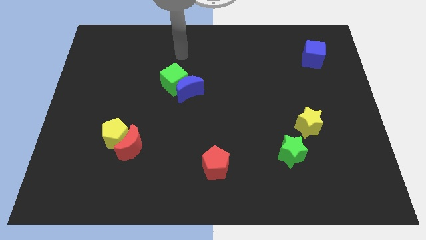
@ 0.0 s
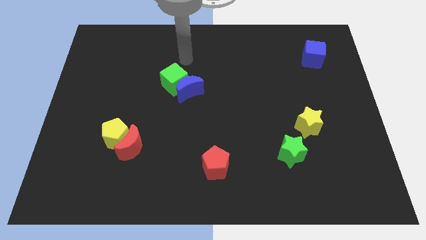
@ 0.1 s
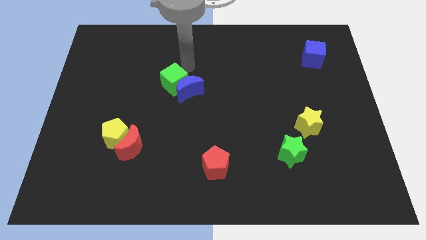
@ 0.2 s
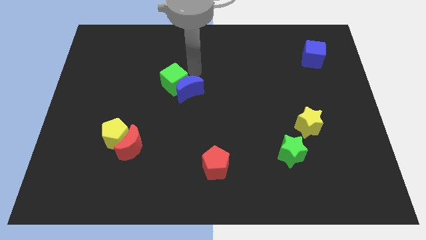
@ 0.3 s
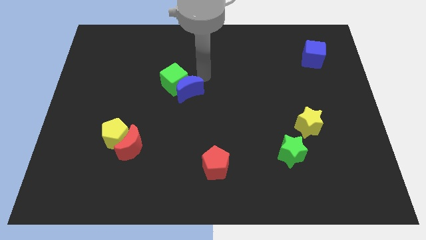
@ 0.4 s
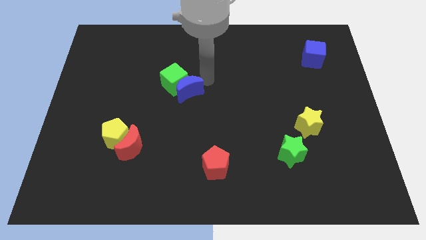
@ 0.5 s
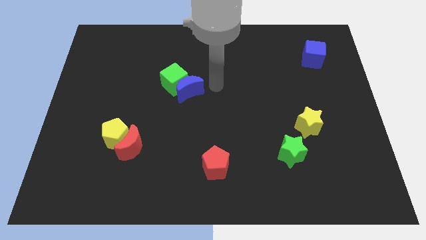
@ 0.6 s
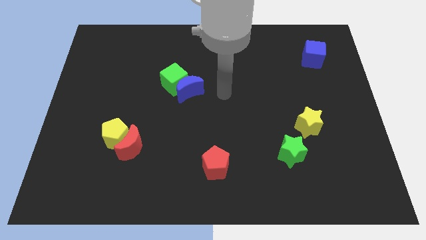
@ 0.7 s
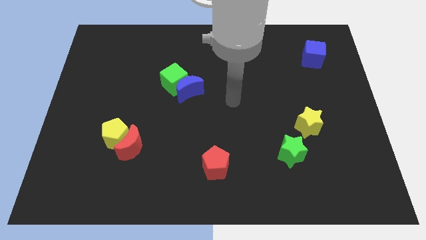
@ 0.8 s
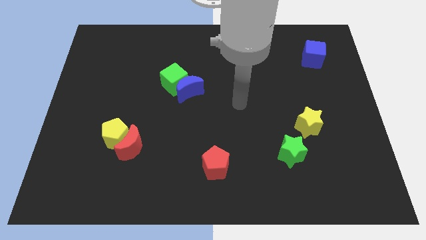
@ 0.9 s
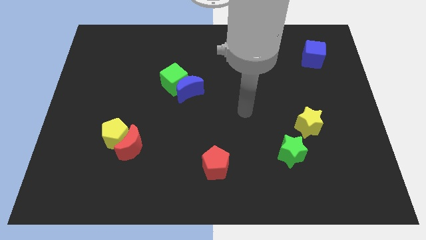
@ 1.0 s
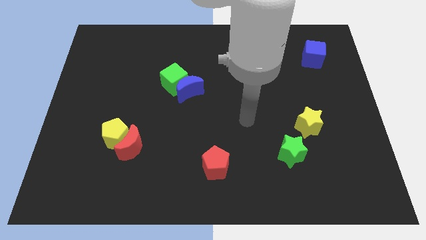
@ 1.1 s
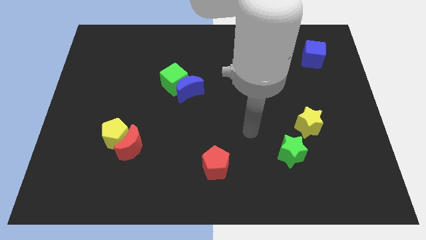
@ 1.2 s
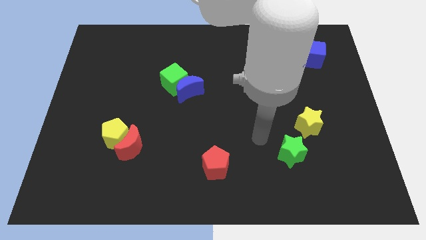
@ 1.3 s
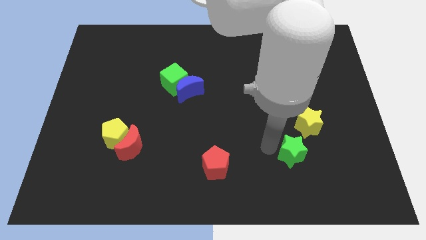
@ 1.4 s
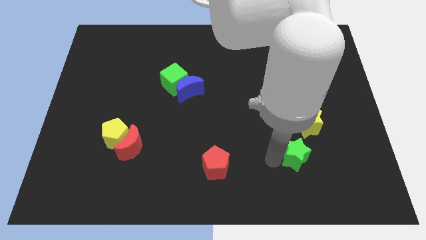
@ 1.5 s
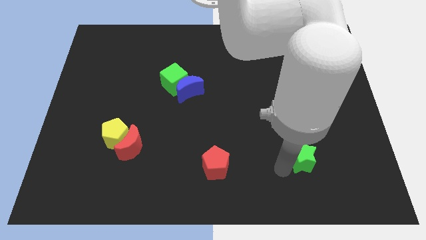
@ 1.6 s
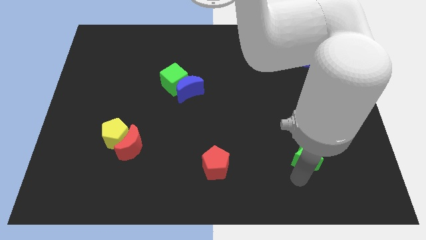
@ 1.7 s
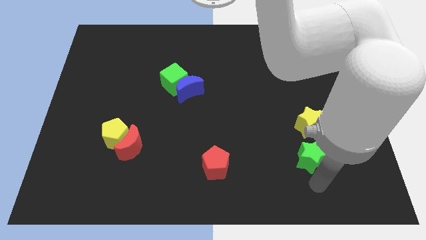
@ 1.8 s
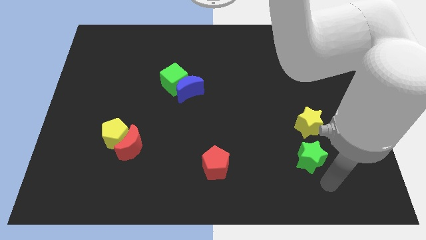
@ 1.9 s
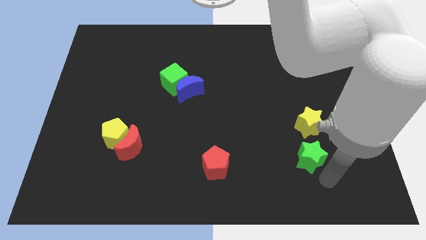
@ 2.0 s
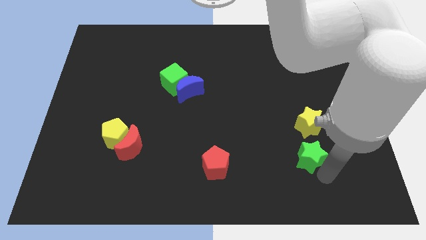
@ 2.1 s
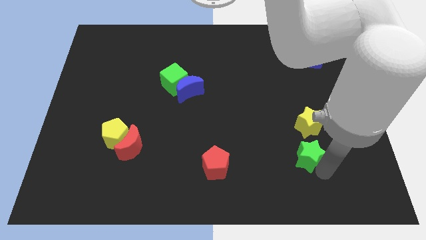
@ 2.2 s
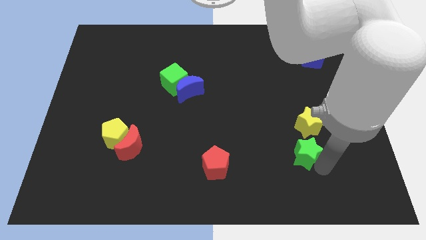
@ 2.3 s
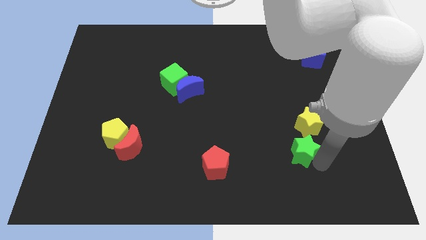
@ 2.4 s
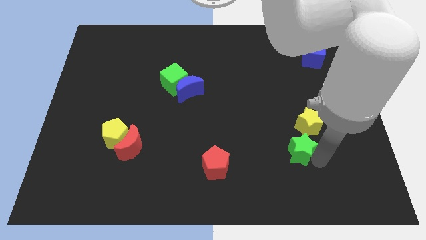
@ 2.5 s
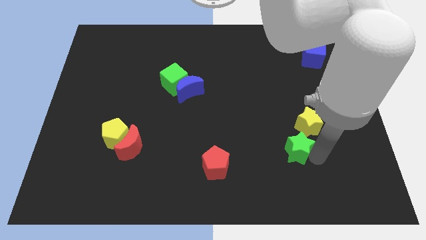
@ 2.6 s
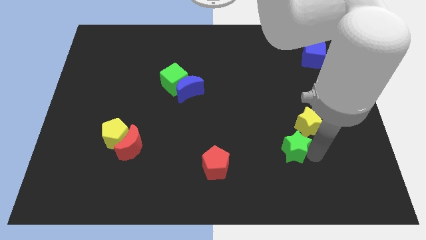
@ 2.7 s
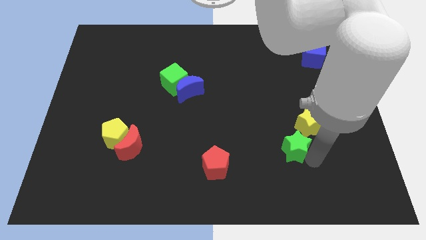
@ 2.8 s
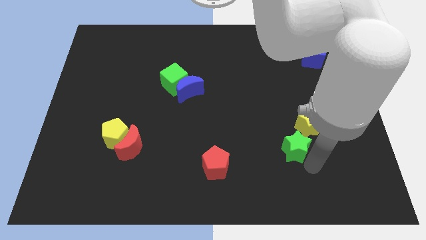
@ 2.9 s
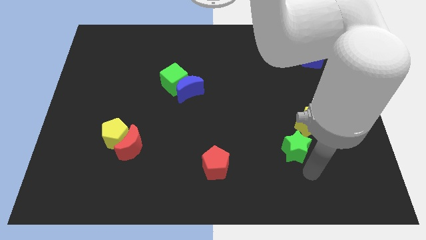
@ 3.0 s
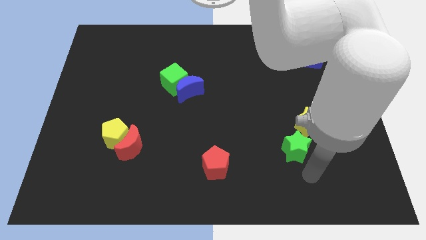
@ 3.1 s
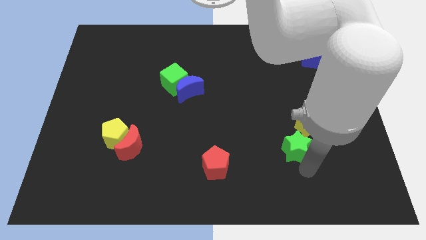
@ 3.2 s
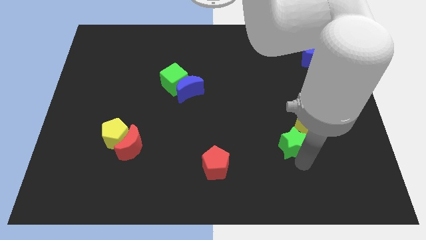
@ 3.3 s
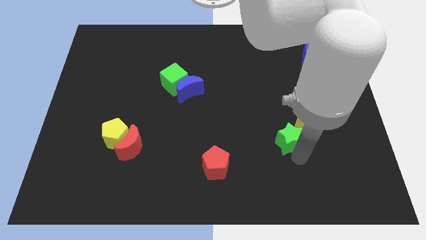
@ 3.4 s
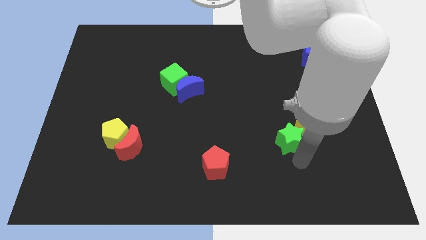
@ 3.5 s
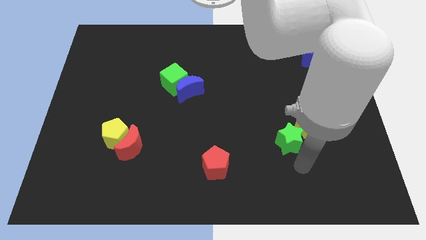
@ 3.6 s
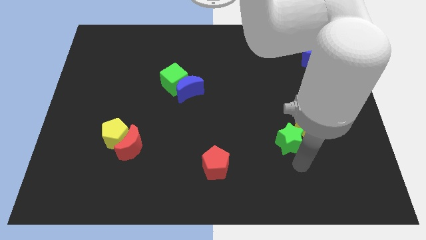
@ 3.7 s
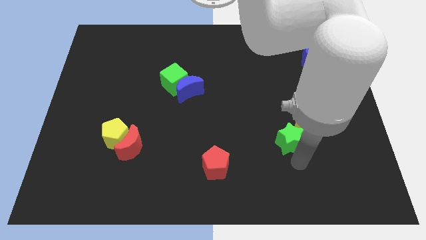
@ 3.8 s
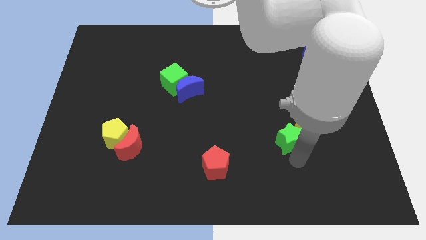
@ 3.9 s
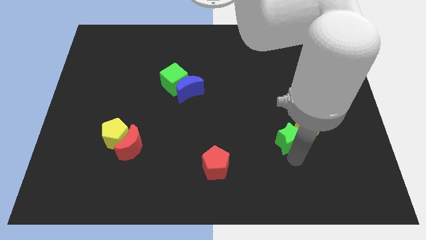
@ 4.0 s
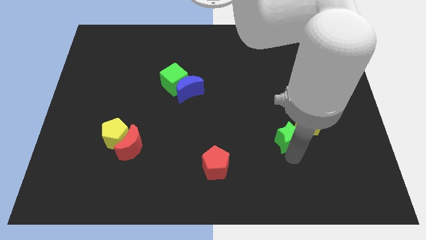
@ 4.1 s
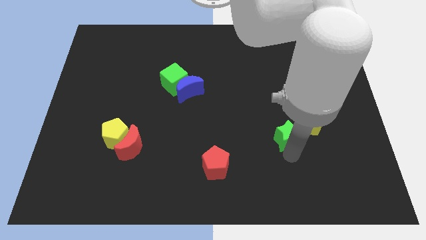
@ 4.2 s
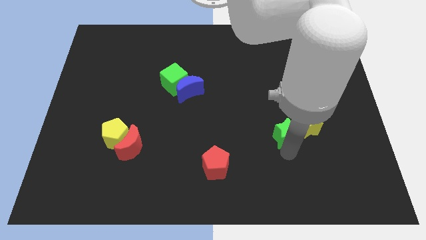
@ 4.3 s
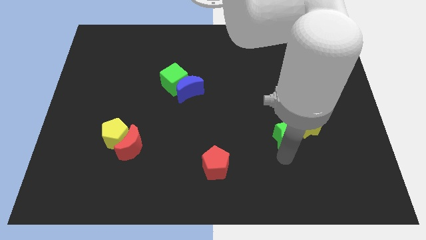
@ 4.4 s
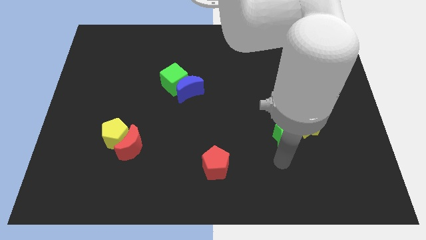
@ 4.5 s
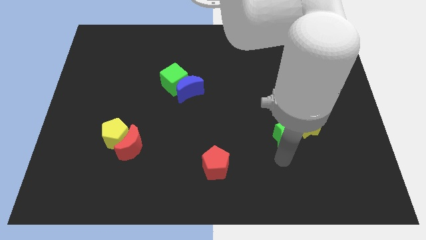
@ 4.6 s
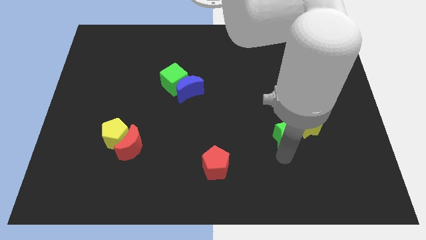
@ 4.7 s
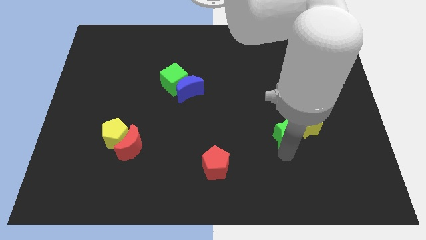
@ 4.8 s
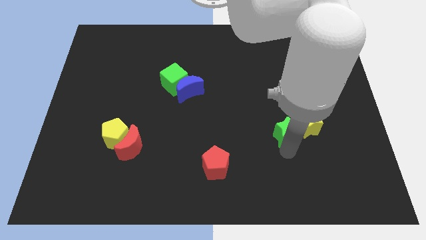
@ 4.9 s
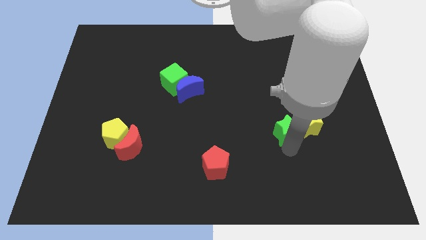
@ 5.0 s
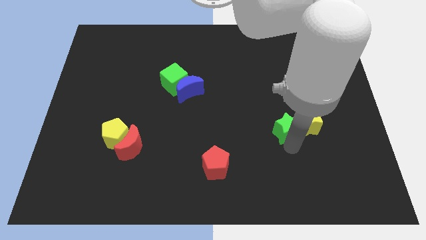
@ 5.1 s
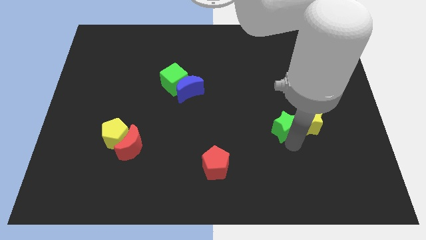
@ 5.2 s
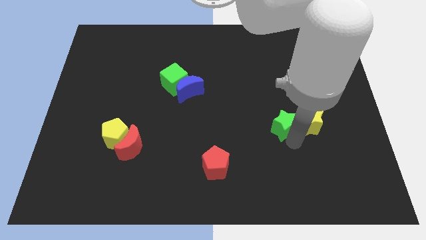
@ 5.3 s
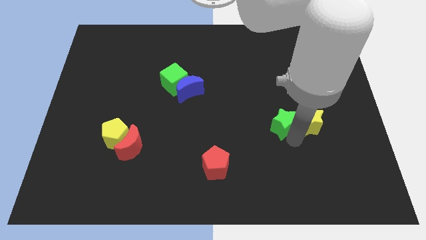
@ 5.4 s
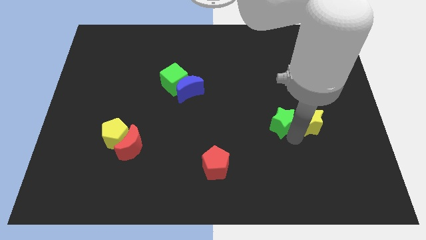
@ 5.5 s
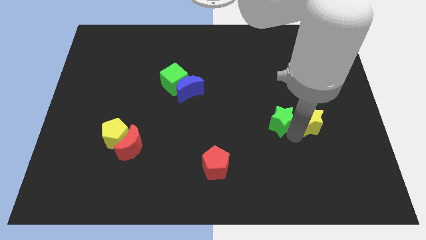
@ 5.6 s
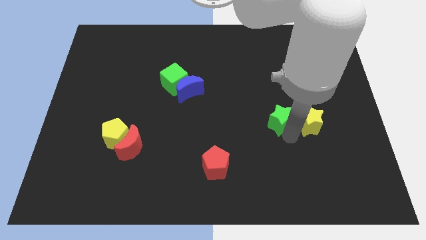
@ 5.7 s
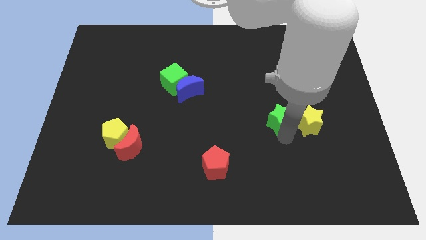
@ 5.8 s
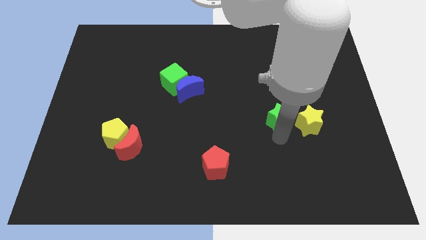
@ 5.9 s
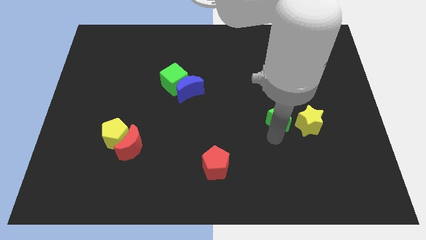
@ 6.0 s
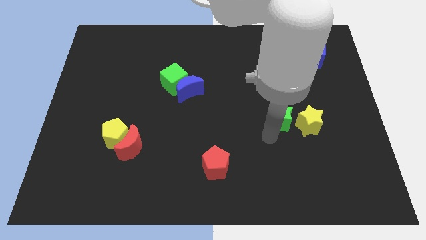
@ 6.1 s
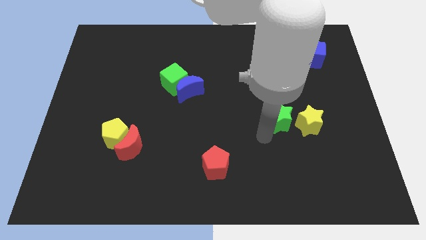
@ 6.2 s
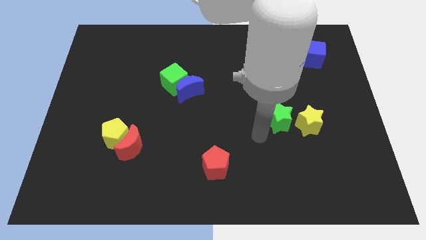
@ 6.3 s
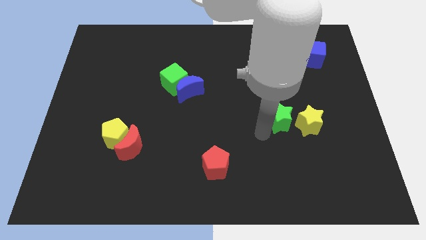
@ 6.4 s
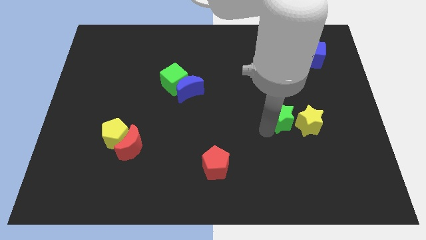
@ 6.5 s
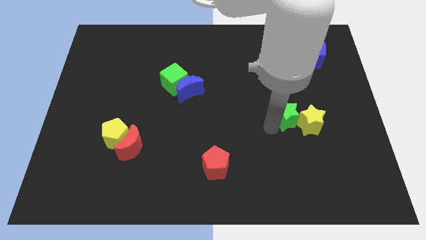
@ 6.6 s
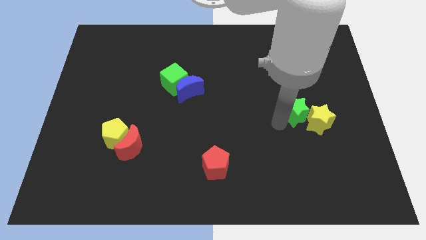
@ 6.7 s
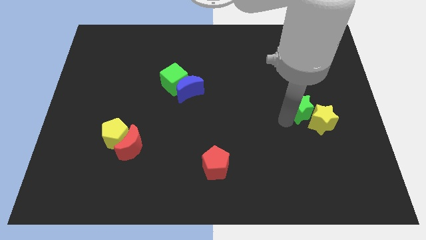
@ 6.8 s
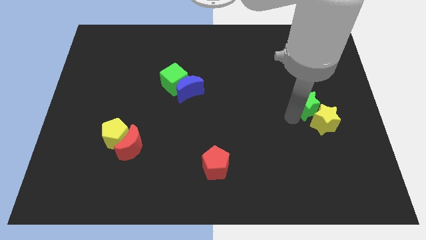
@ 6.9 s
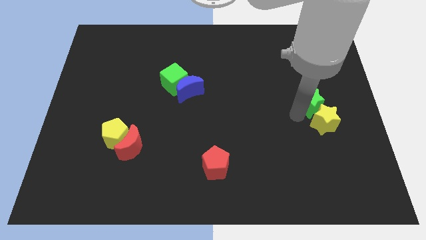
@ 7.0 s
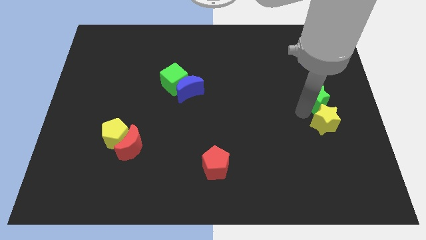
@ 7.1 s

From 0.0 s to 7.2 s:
put the green star below the blue cube
